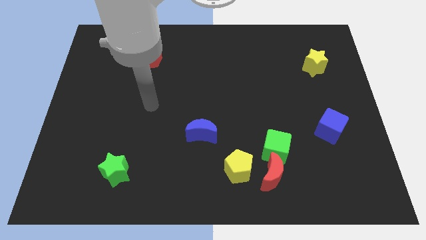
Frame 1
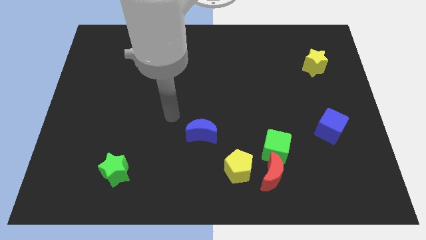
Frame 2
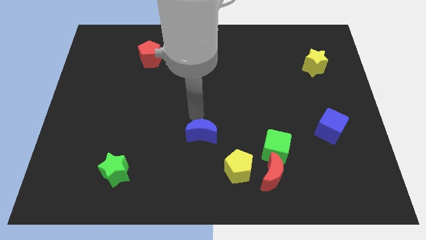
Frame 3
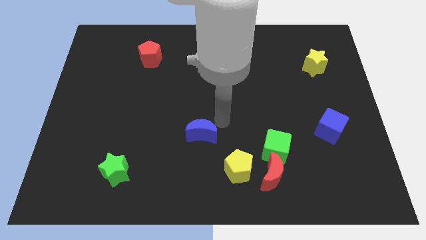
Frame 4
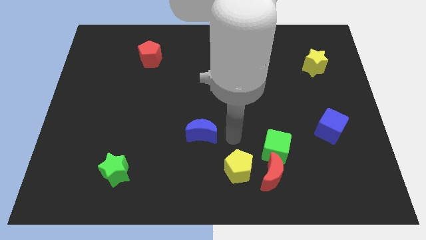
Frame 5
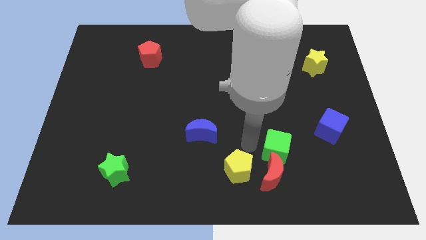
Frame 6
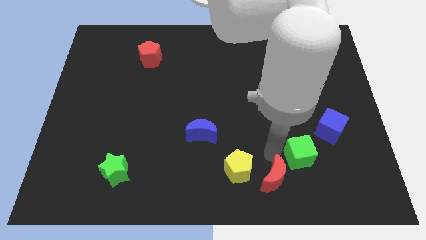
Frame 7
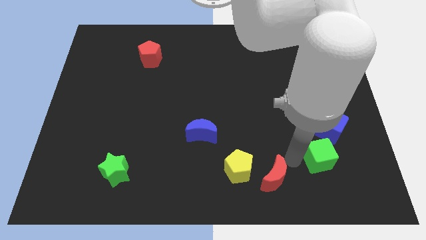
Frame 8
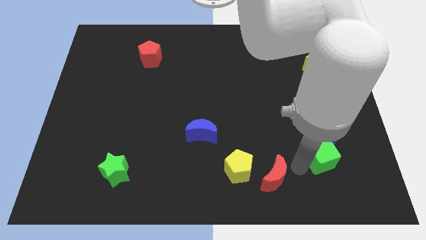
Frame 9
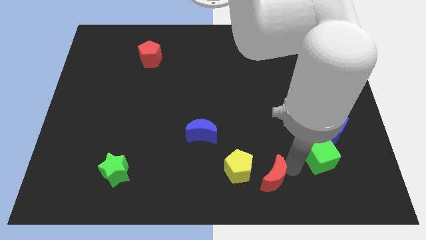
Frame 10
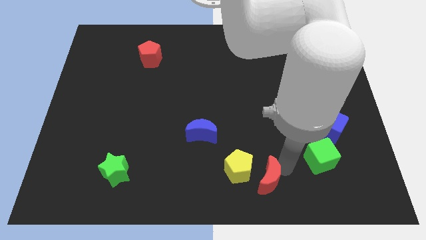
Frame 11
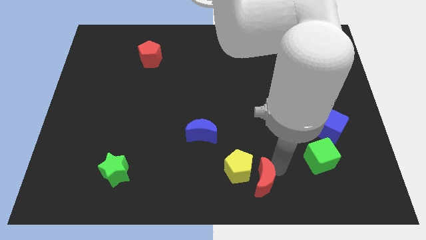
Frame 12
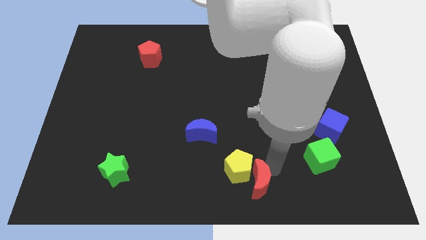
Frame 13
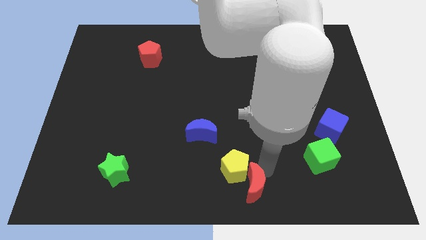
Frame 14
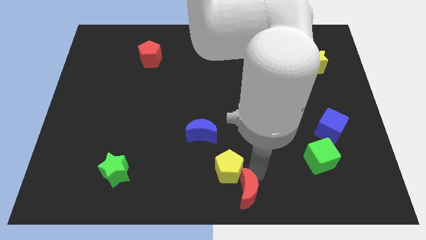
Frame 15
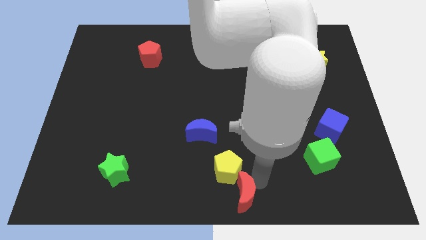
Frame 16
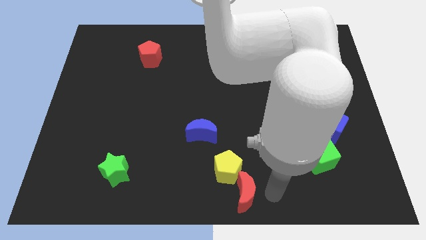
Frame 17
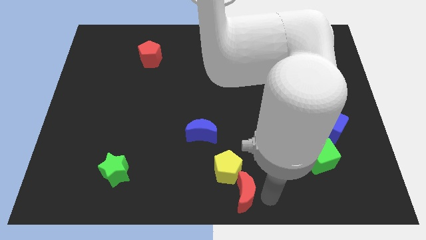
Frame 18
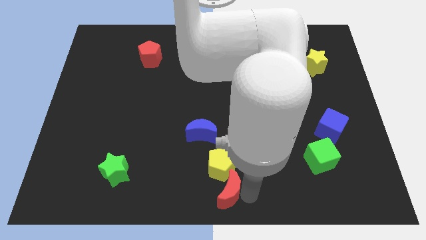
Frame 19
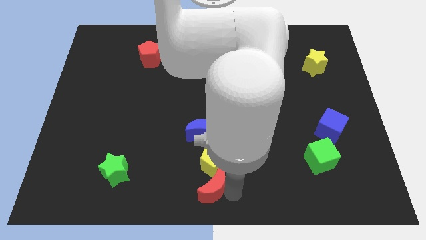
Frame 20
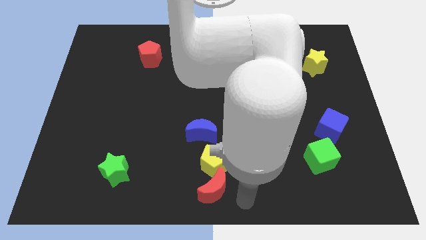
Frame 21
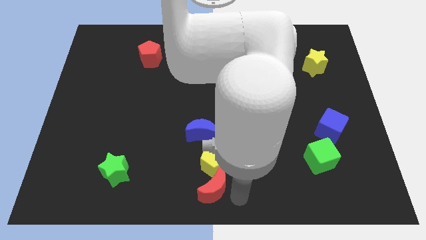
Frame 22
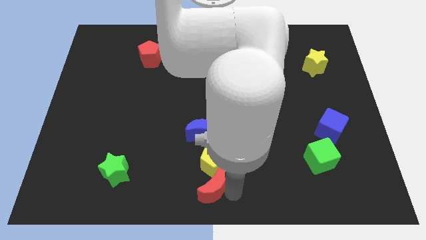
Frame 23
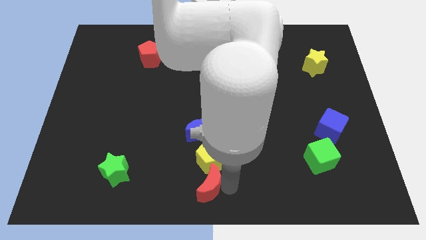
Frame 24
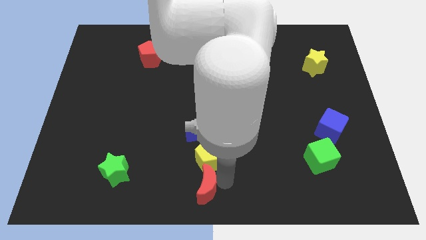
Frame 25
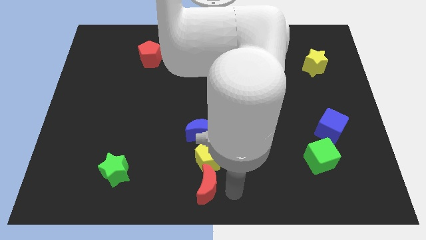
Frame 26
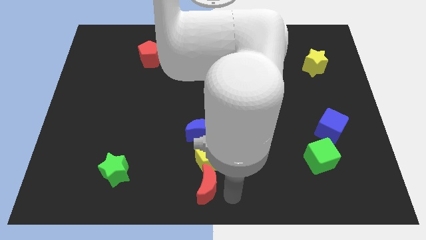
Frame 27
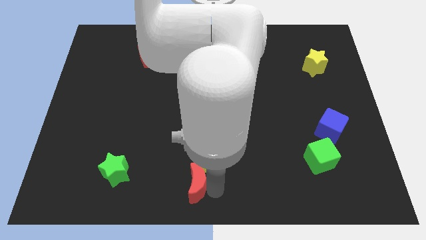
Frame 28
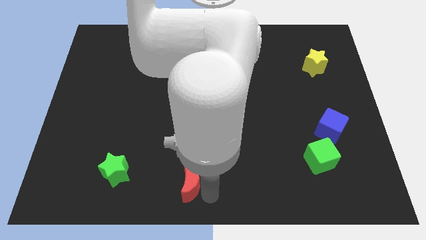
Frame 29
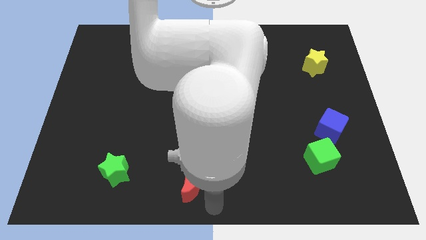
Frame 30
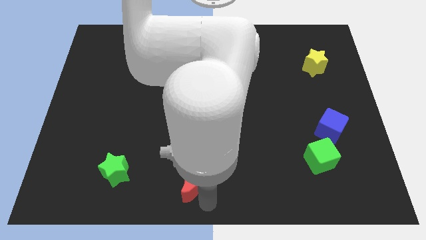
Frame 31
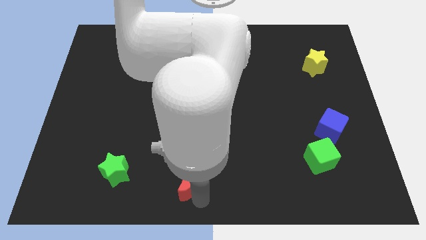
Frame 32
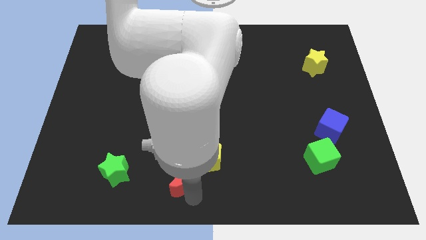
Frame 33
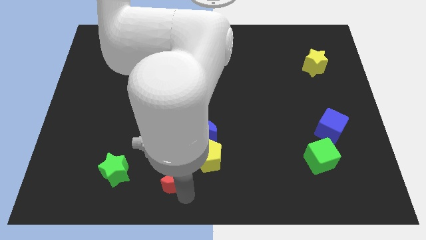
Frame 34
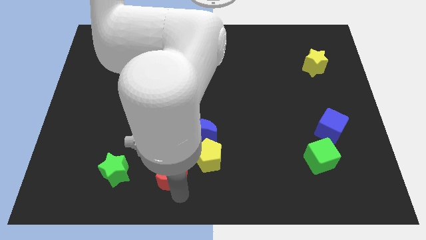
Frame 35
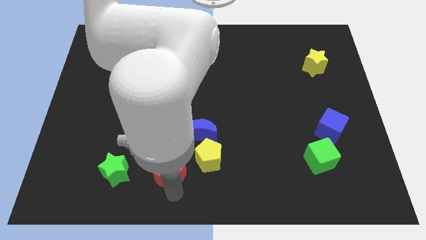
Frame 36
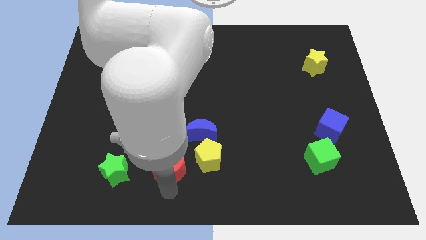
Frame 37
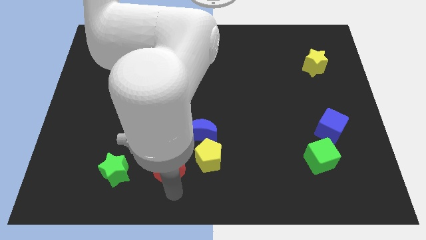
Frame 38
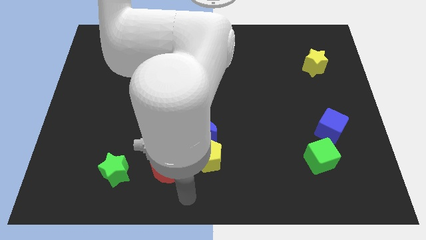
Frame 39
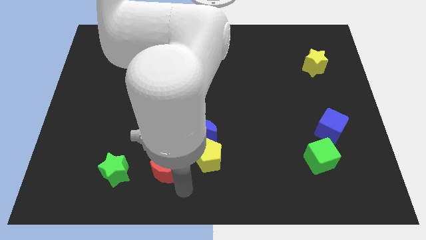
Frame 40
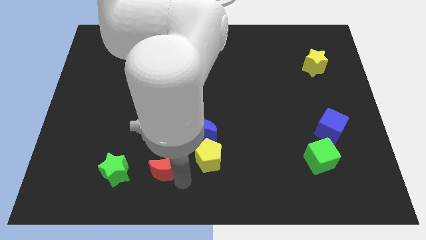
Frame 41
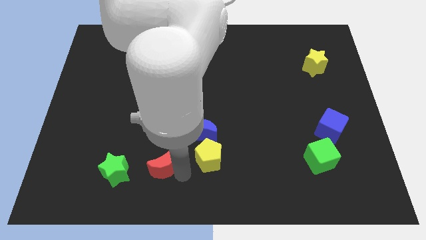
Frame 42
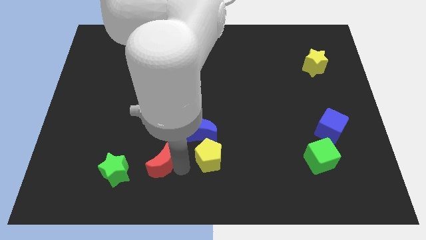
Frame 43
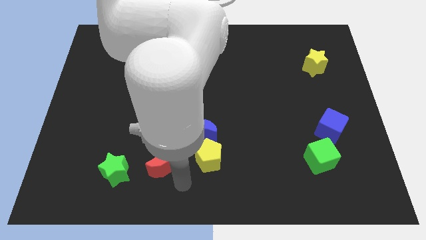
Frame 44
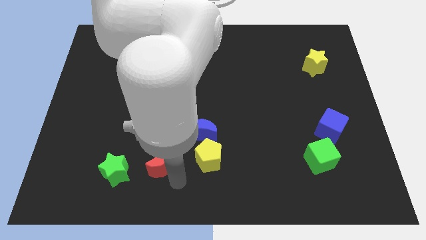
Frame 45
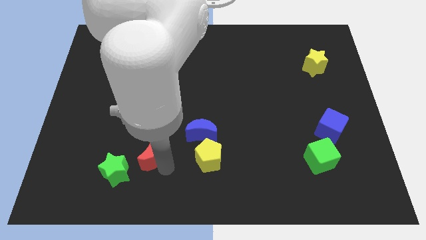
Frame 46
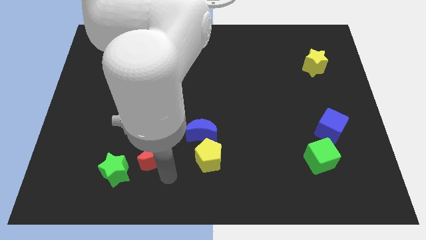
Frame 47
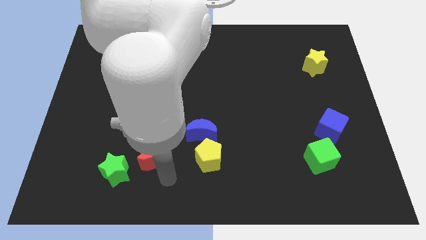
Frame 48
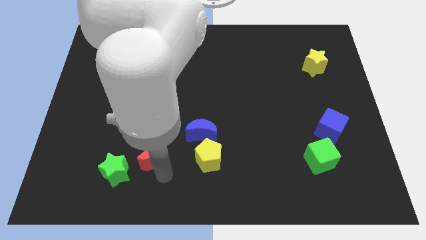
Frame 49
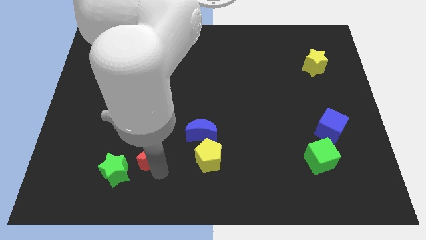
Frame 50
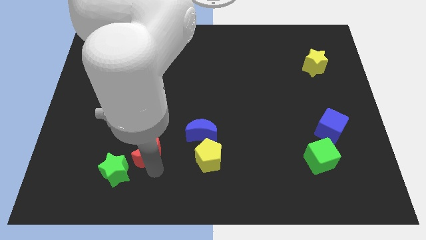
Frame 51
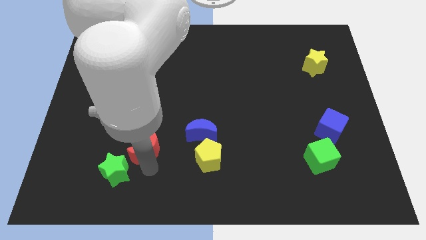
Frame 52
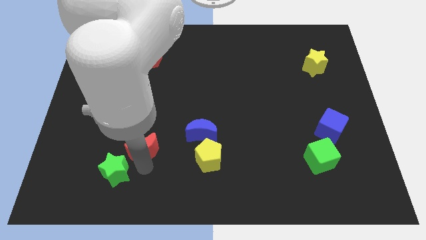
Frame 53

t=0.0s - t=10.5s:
push the red moon to the top of the green star

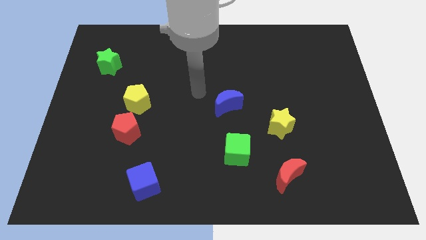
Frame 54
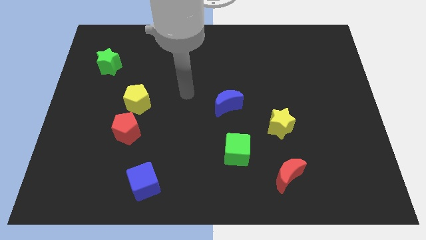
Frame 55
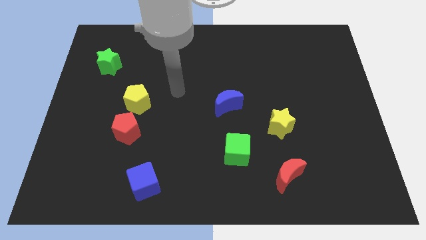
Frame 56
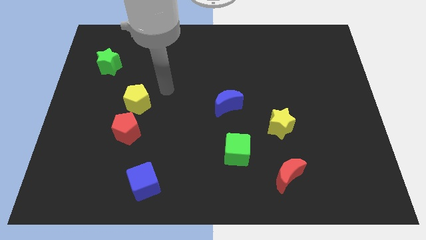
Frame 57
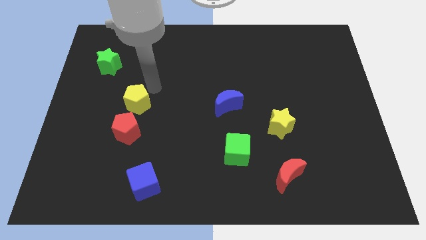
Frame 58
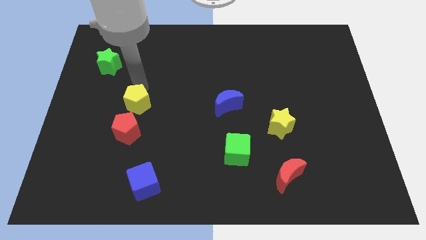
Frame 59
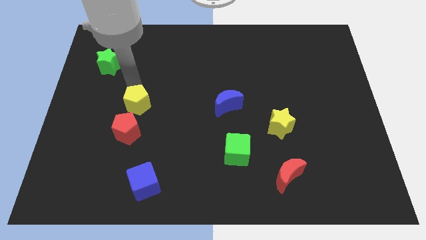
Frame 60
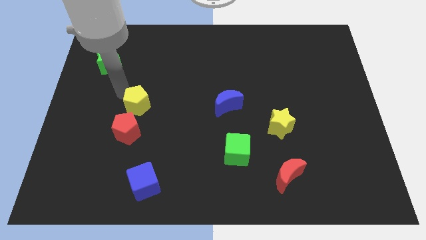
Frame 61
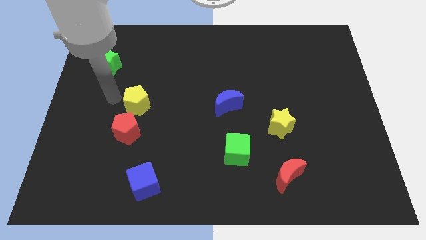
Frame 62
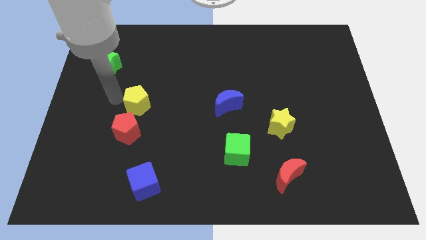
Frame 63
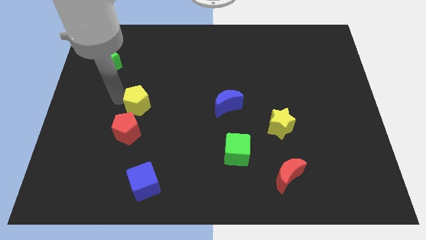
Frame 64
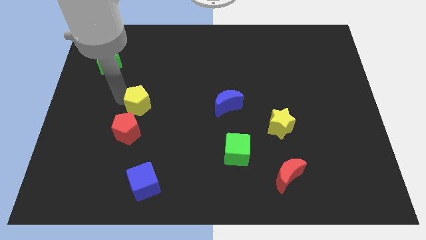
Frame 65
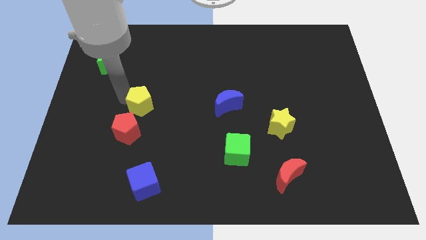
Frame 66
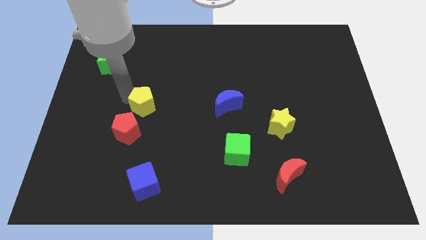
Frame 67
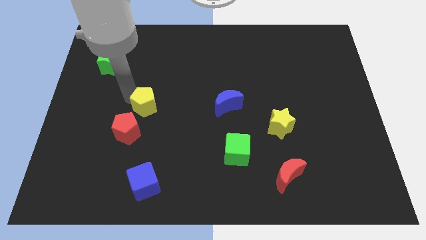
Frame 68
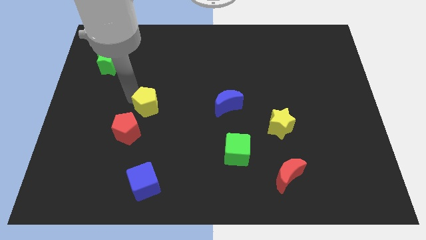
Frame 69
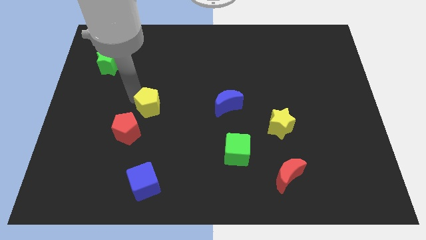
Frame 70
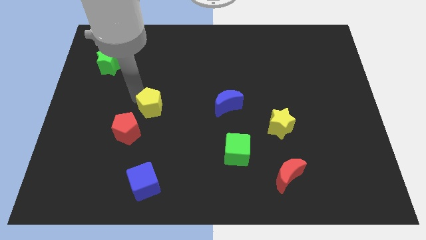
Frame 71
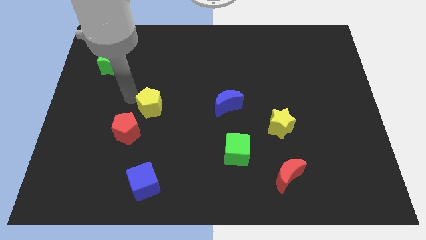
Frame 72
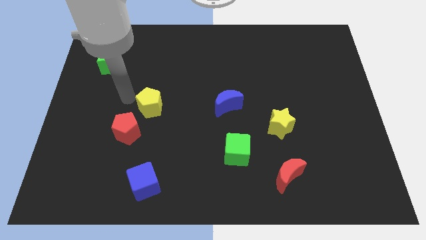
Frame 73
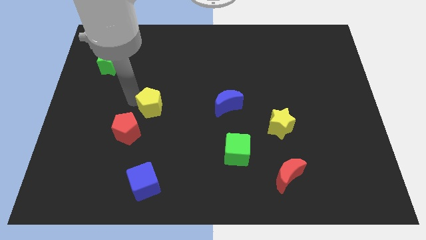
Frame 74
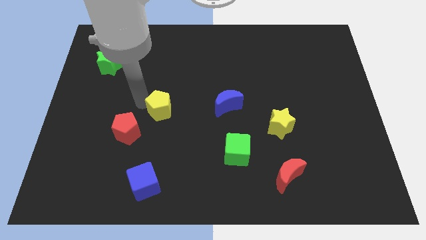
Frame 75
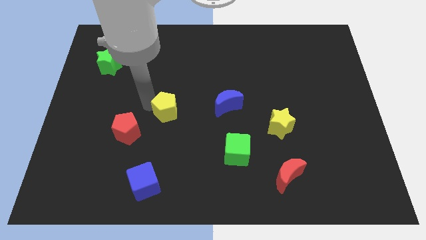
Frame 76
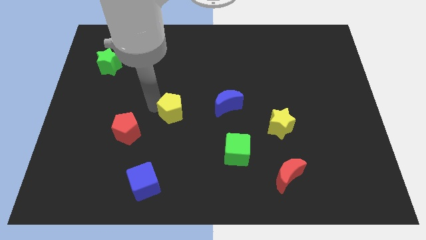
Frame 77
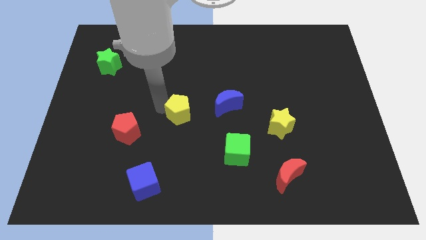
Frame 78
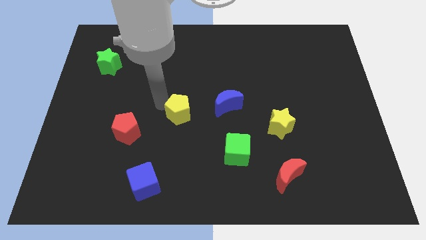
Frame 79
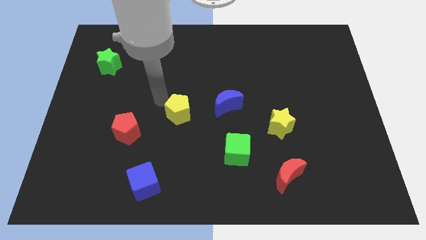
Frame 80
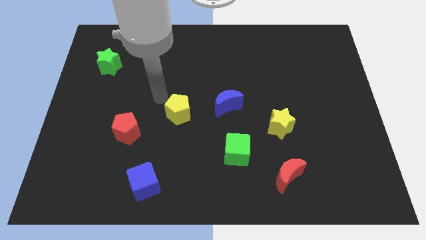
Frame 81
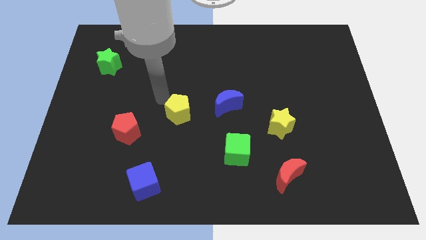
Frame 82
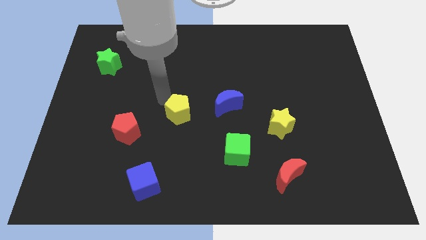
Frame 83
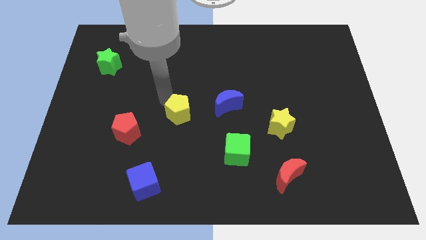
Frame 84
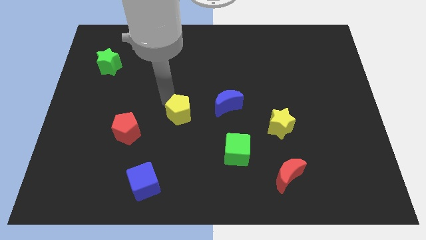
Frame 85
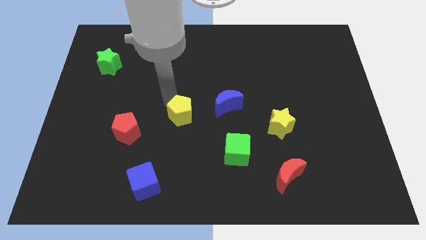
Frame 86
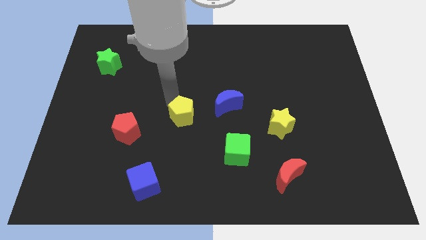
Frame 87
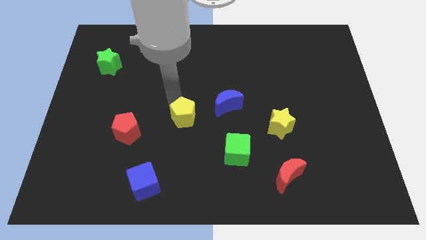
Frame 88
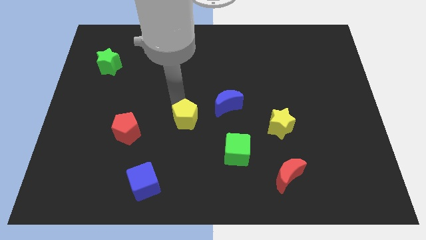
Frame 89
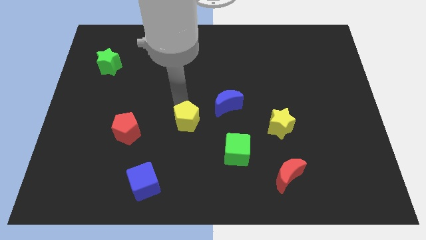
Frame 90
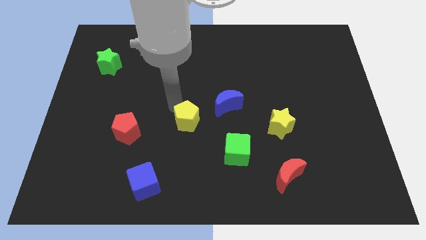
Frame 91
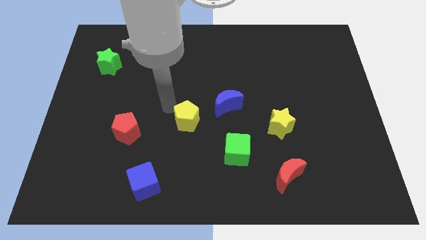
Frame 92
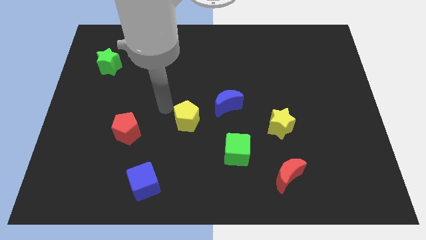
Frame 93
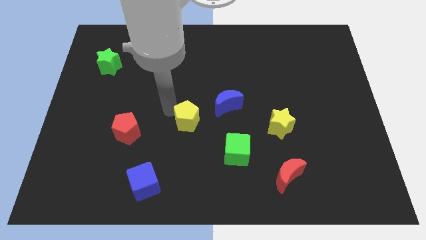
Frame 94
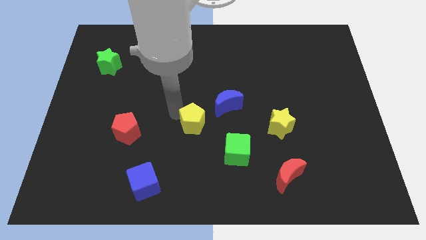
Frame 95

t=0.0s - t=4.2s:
move the yellow pentagon diagonally up and to the left of the green cube
